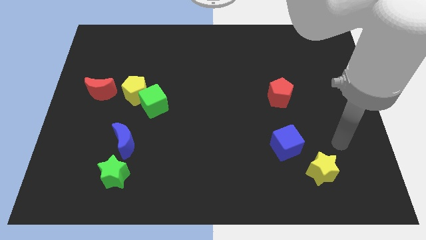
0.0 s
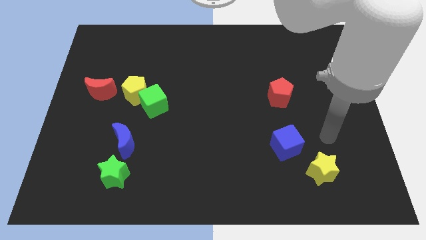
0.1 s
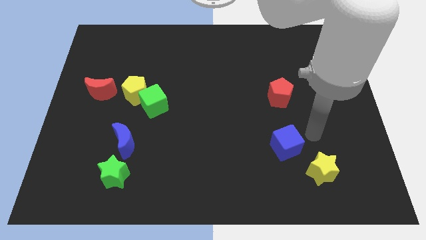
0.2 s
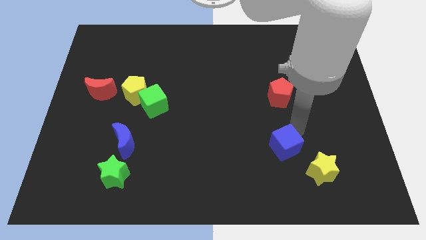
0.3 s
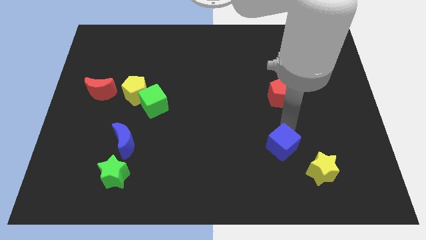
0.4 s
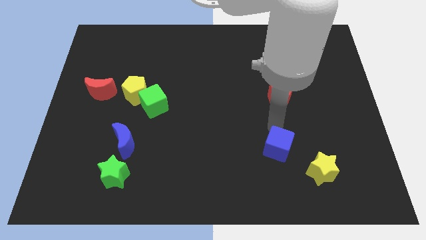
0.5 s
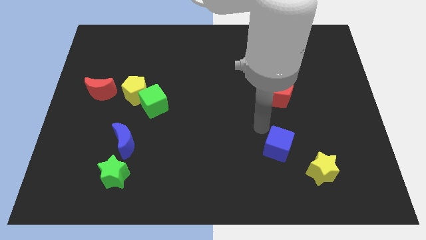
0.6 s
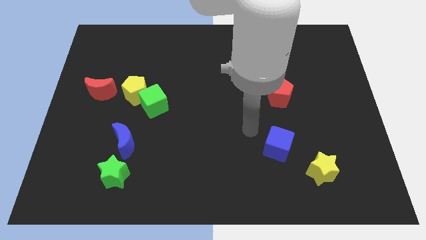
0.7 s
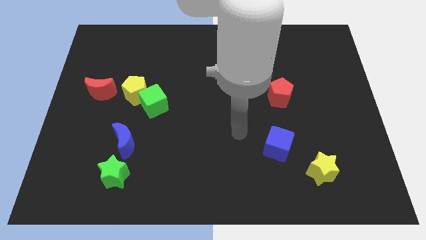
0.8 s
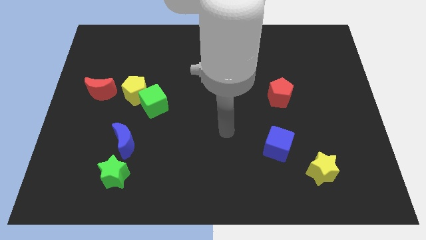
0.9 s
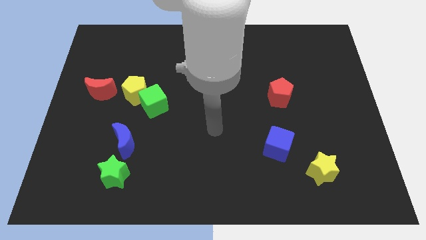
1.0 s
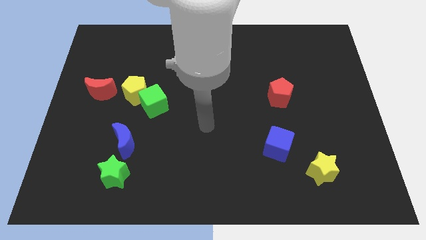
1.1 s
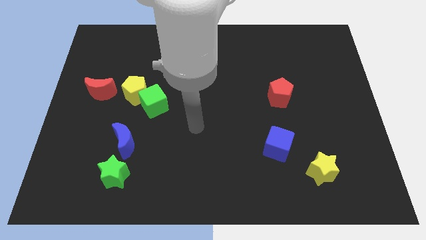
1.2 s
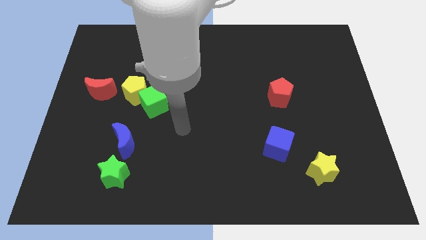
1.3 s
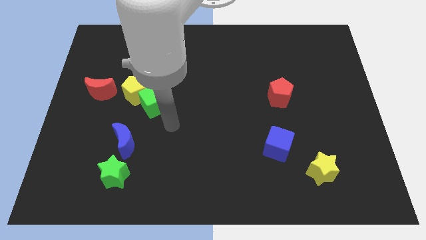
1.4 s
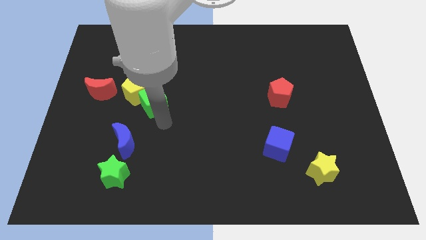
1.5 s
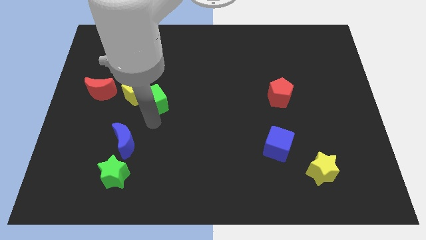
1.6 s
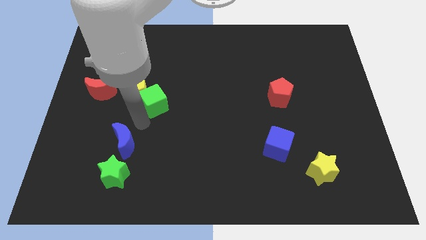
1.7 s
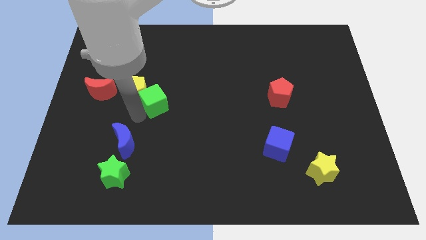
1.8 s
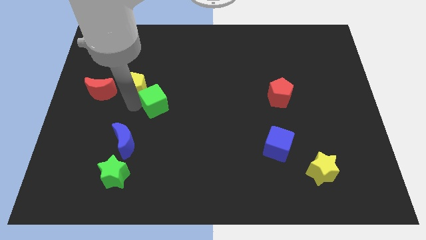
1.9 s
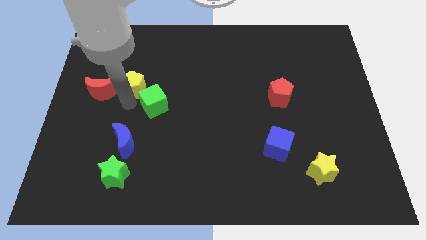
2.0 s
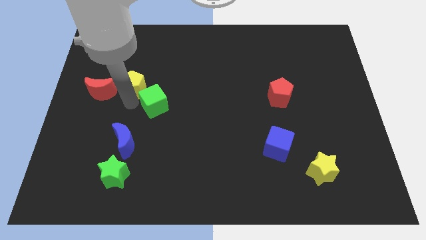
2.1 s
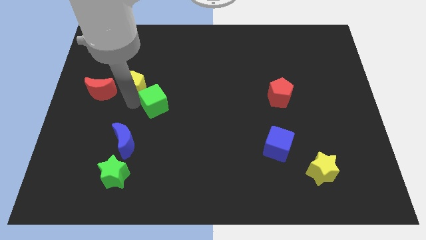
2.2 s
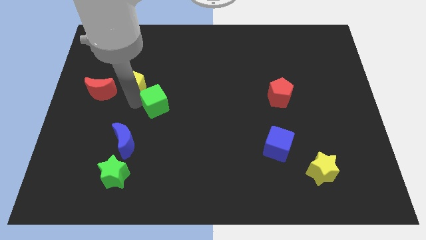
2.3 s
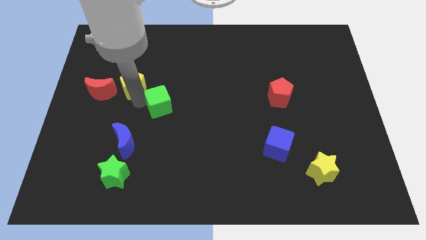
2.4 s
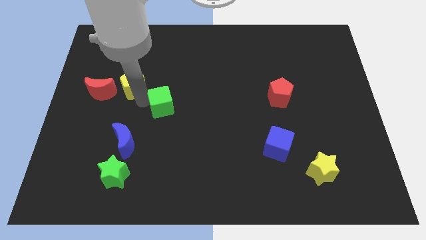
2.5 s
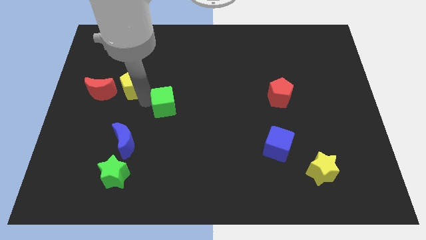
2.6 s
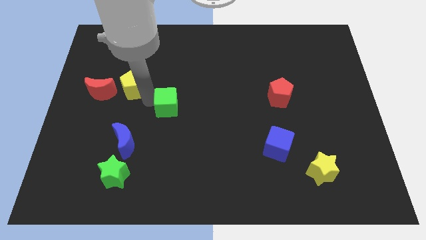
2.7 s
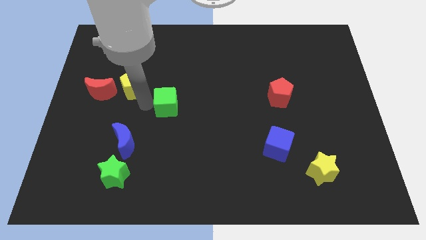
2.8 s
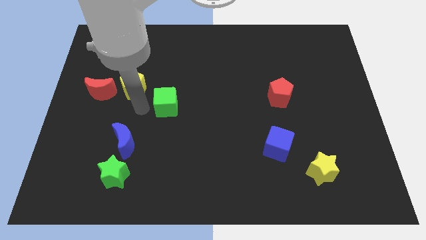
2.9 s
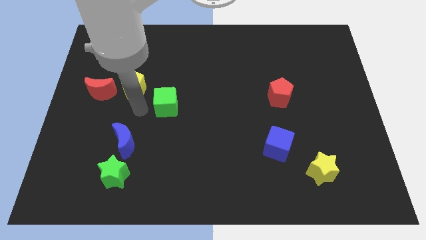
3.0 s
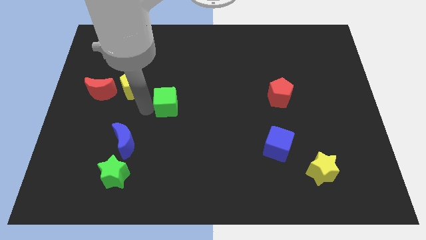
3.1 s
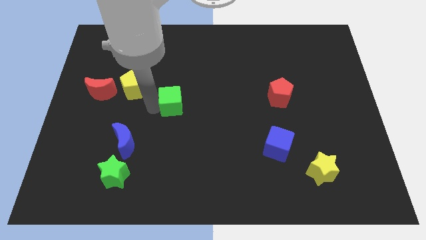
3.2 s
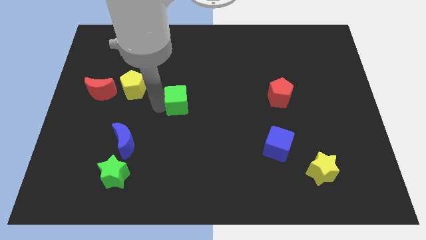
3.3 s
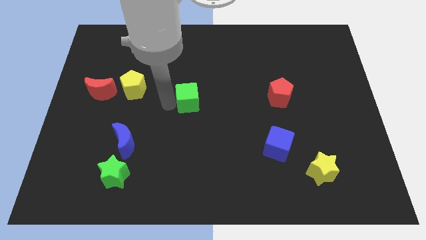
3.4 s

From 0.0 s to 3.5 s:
push the green cube a little to the right

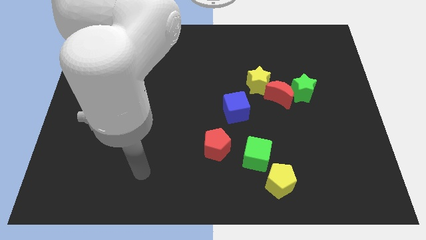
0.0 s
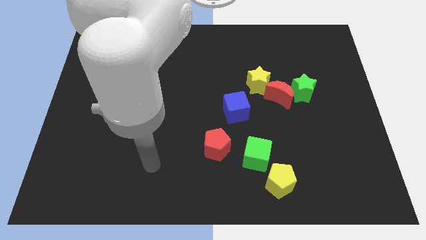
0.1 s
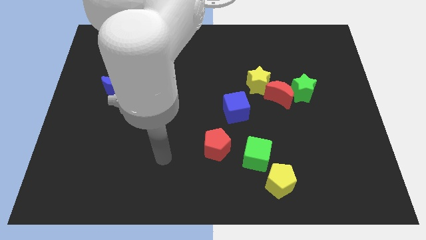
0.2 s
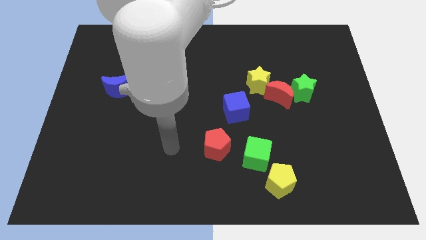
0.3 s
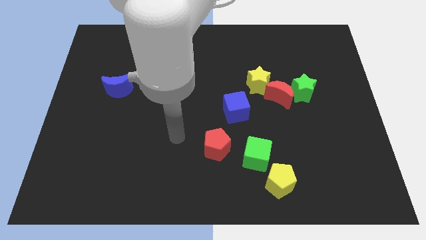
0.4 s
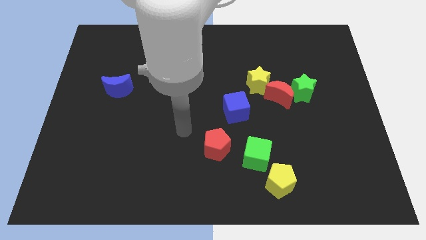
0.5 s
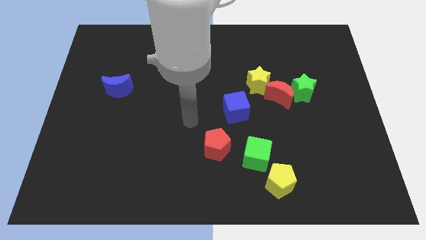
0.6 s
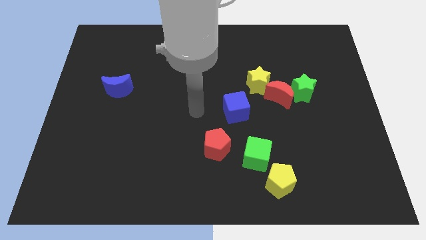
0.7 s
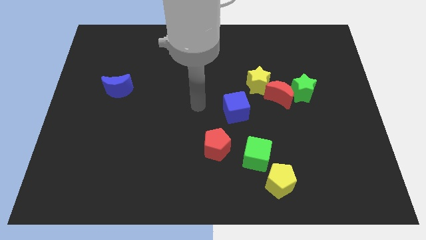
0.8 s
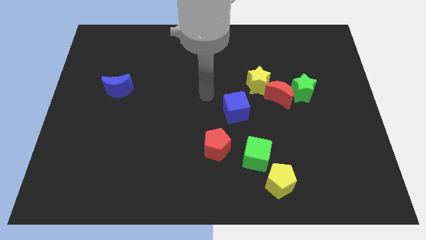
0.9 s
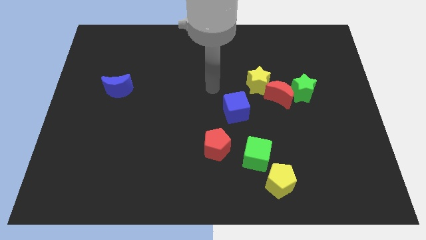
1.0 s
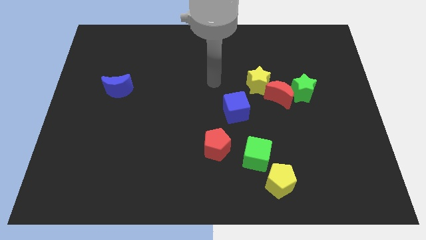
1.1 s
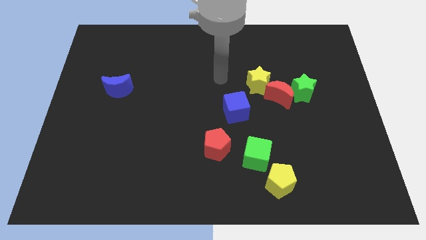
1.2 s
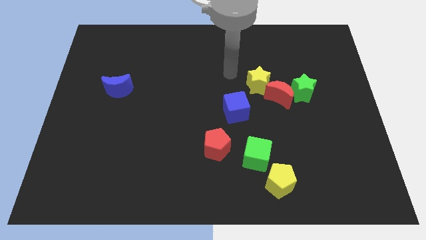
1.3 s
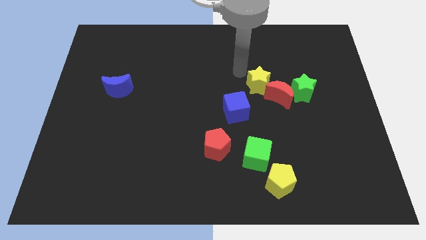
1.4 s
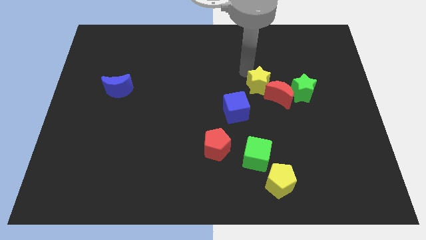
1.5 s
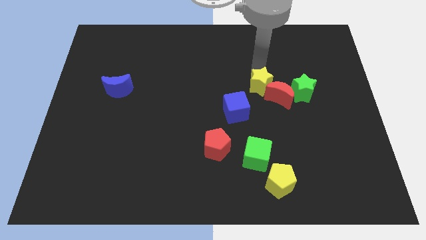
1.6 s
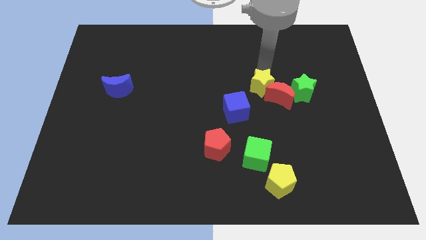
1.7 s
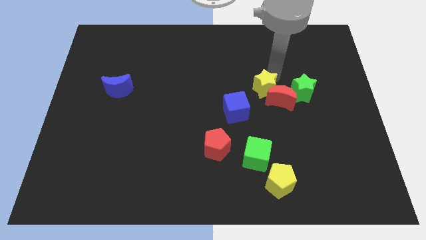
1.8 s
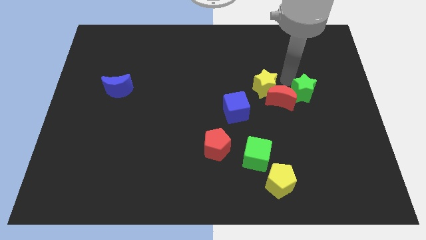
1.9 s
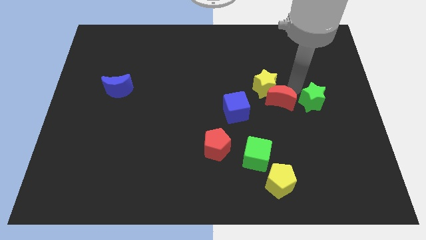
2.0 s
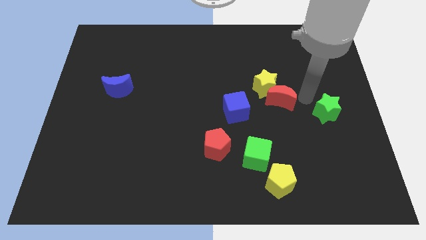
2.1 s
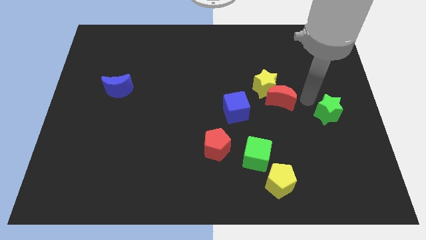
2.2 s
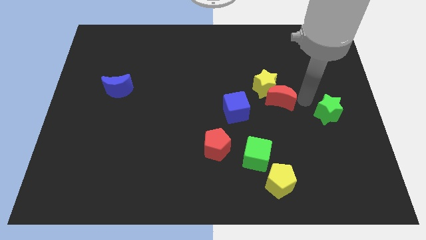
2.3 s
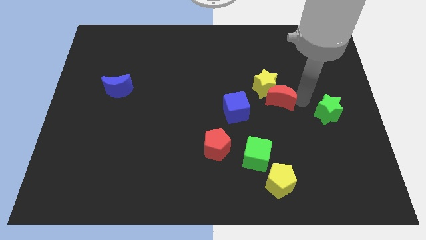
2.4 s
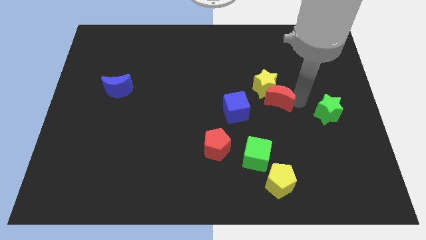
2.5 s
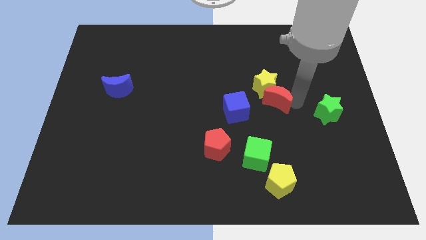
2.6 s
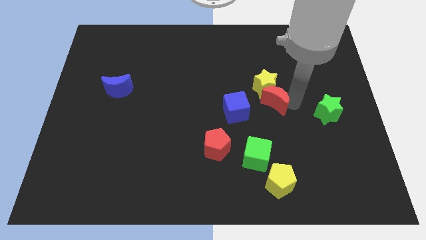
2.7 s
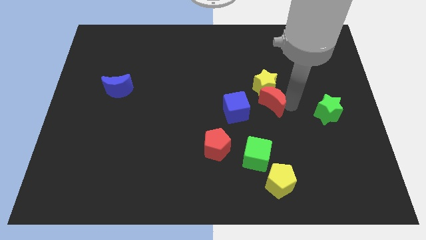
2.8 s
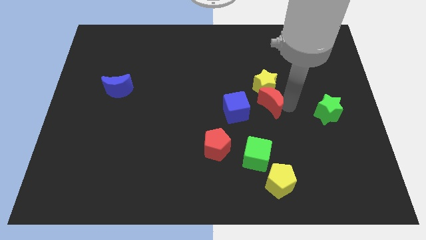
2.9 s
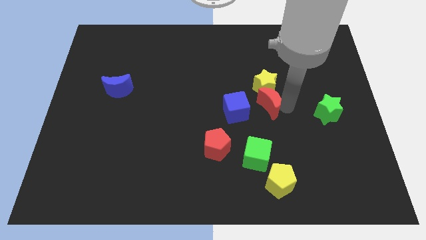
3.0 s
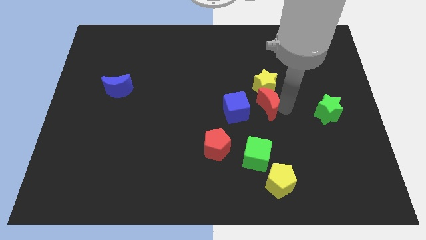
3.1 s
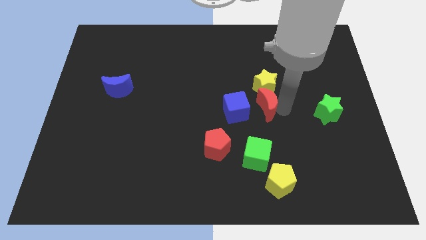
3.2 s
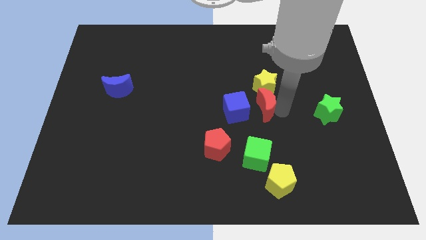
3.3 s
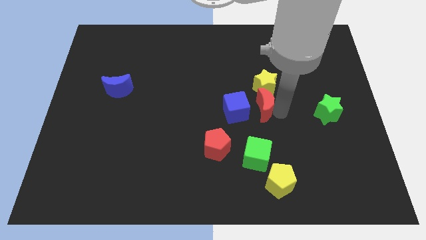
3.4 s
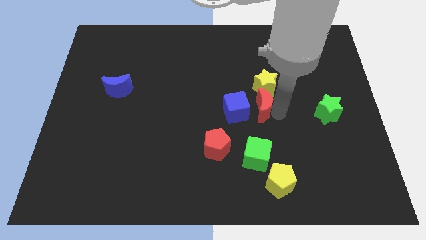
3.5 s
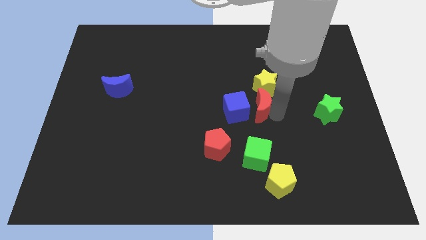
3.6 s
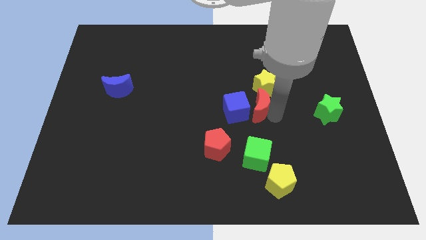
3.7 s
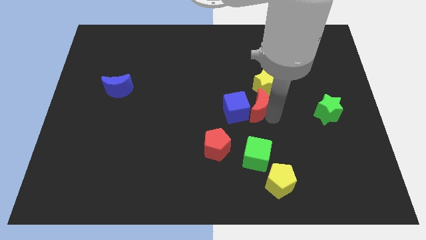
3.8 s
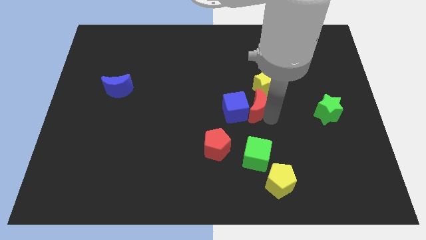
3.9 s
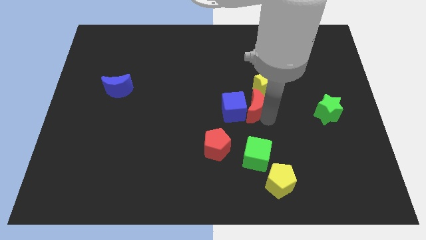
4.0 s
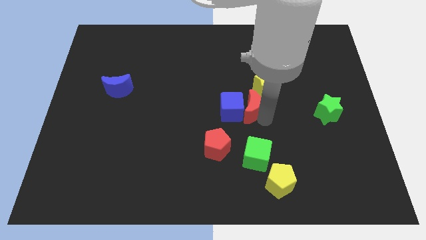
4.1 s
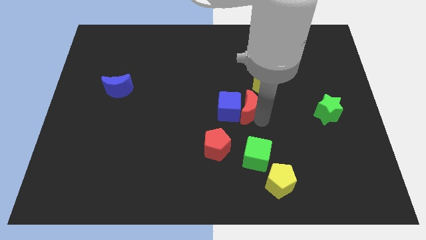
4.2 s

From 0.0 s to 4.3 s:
move the red moon left a little

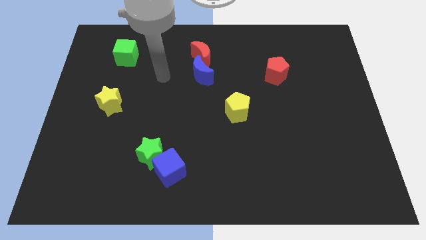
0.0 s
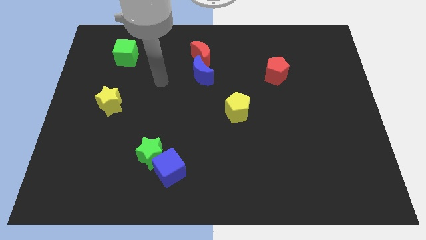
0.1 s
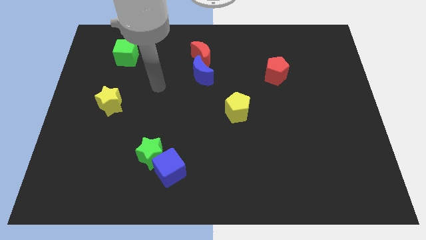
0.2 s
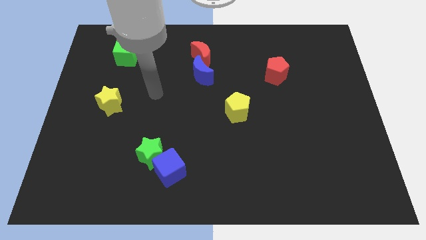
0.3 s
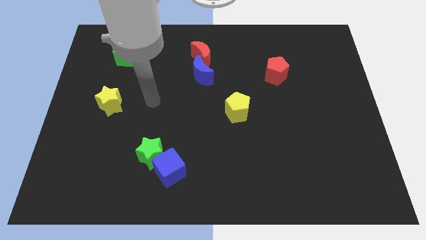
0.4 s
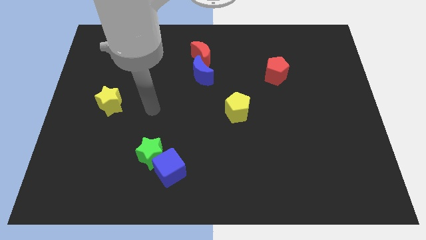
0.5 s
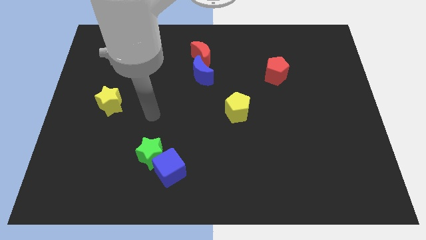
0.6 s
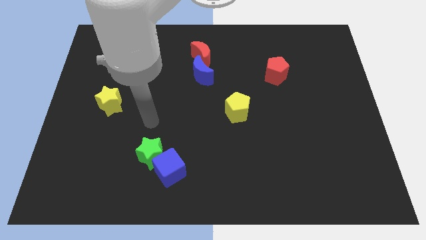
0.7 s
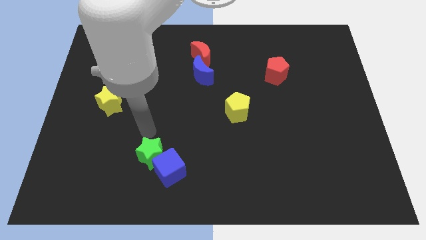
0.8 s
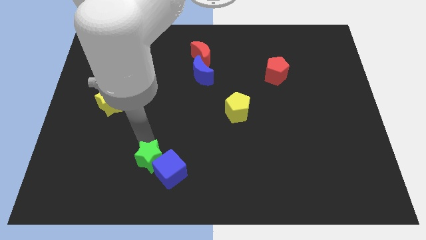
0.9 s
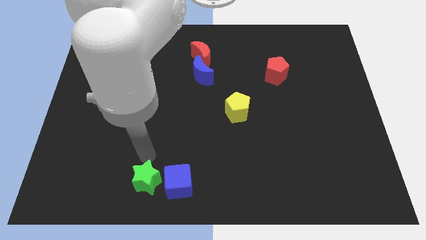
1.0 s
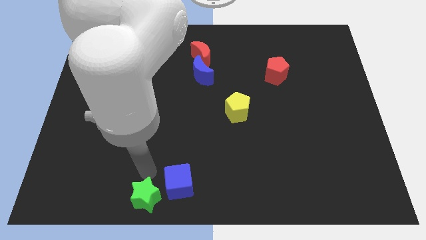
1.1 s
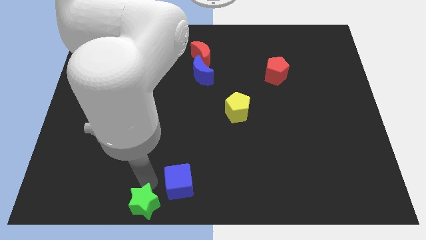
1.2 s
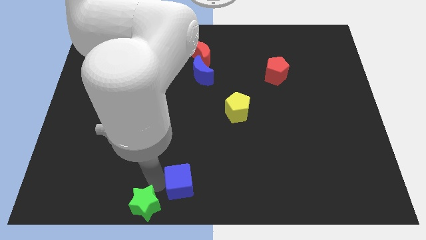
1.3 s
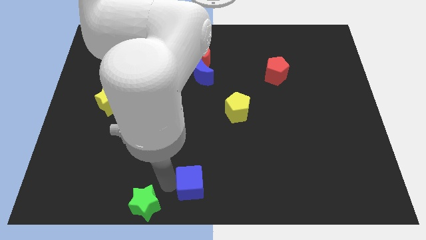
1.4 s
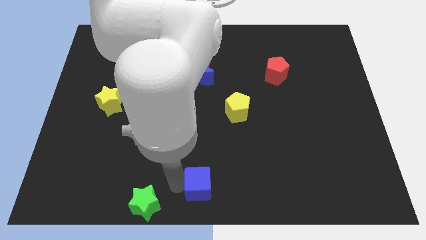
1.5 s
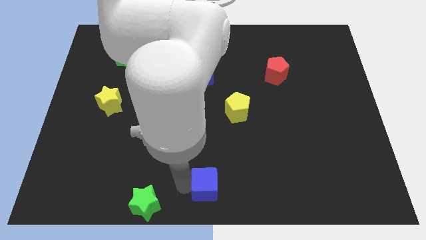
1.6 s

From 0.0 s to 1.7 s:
slide the blue cube right somewhat
